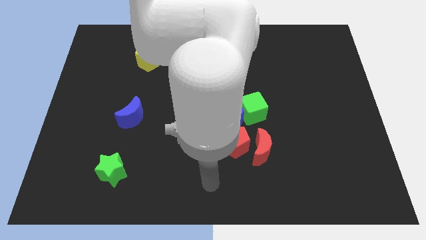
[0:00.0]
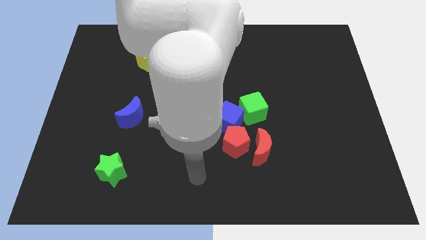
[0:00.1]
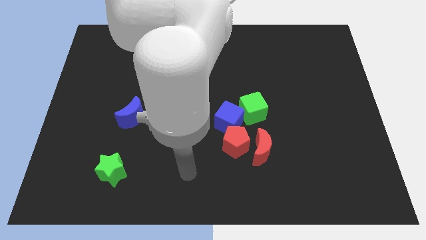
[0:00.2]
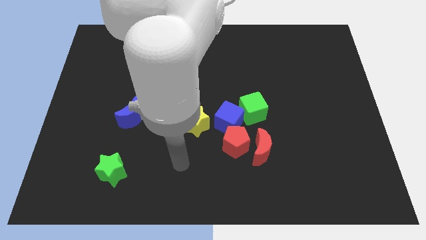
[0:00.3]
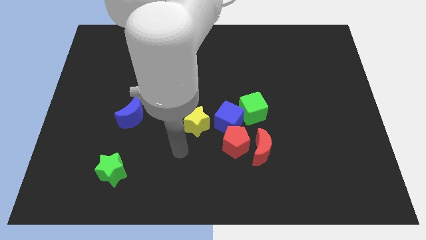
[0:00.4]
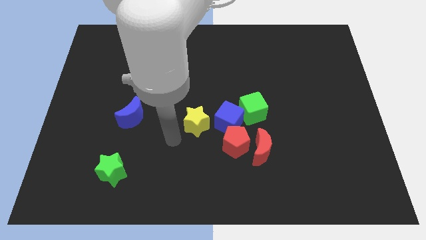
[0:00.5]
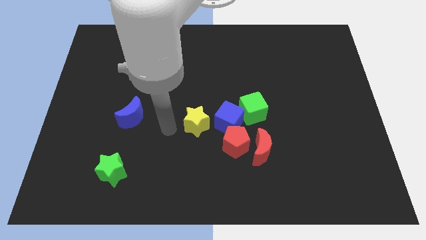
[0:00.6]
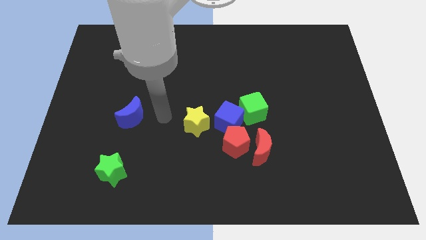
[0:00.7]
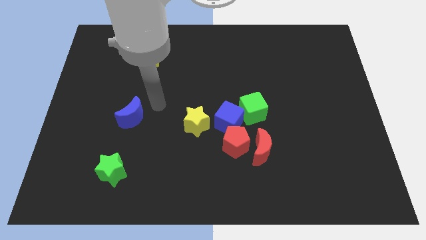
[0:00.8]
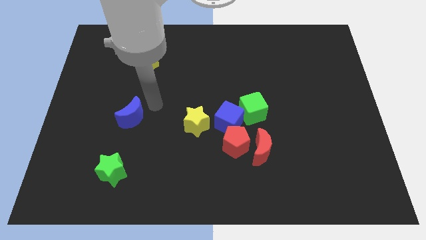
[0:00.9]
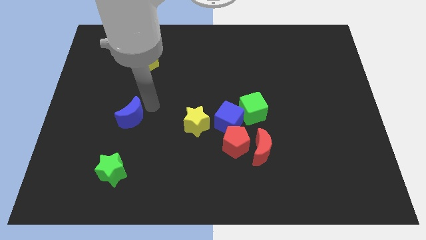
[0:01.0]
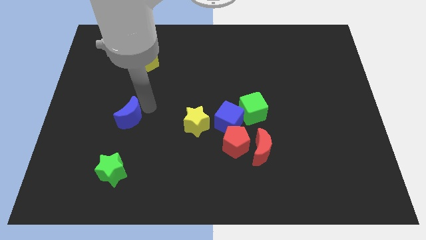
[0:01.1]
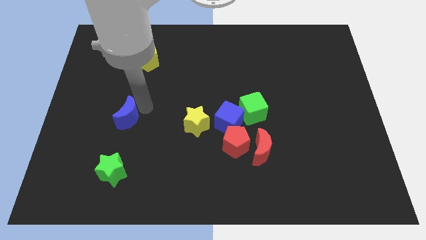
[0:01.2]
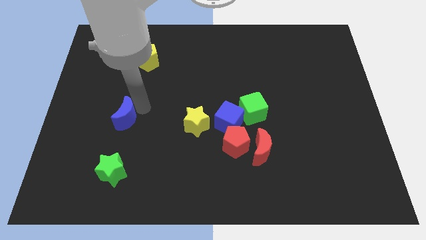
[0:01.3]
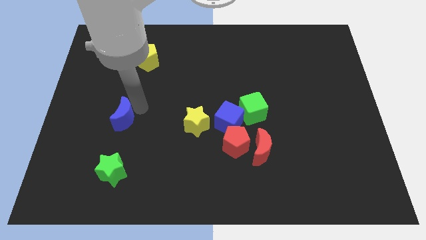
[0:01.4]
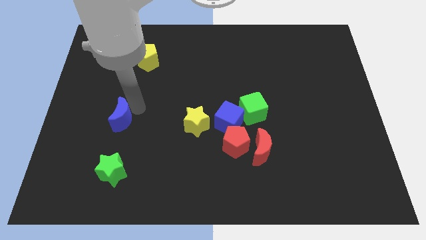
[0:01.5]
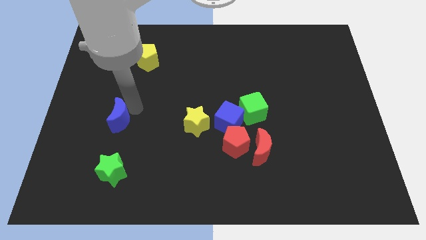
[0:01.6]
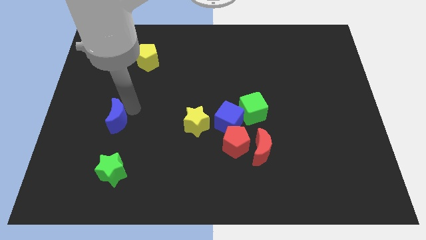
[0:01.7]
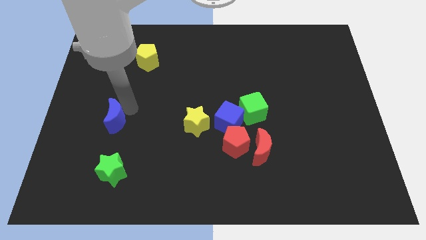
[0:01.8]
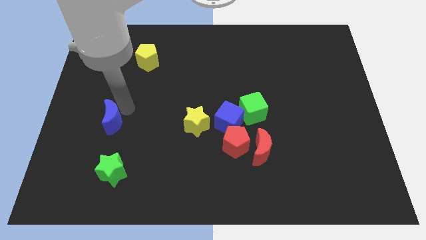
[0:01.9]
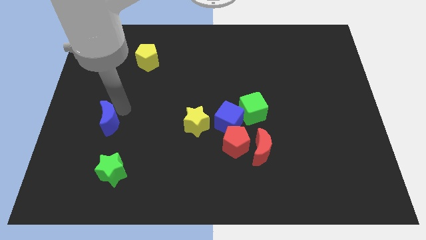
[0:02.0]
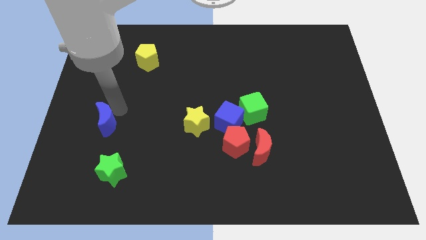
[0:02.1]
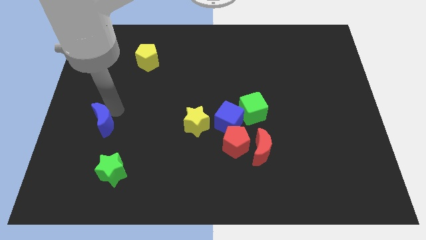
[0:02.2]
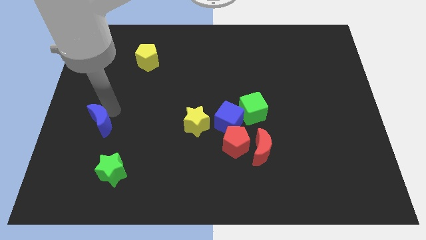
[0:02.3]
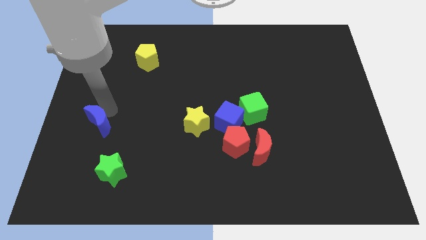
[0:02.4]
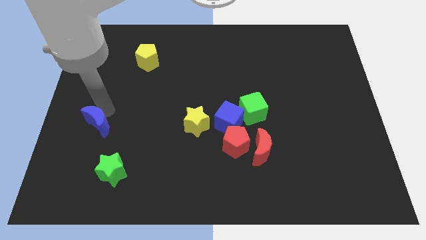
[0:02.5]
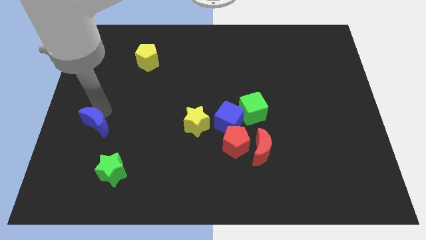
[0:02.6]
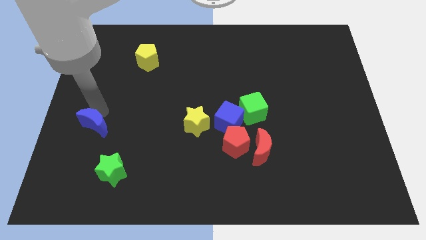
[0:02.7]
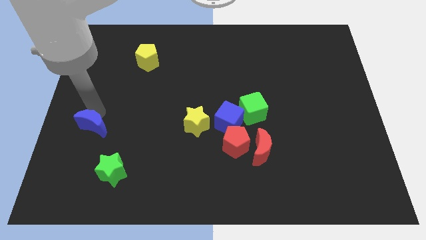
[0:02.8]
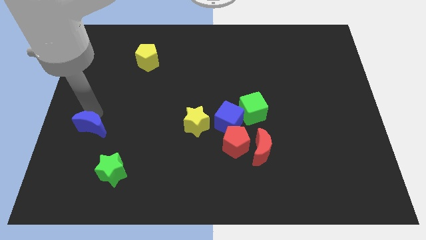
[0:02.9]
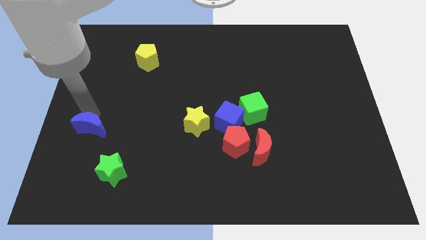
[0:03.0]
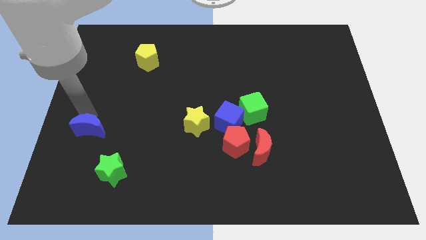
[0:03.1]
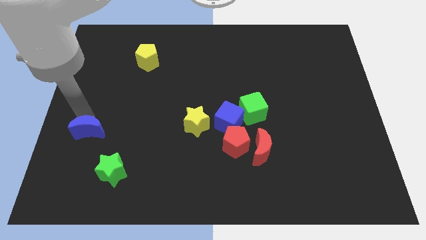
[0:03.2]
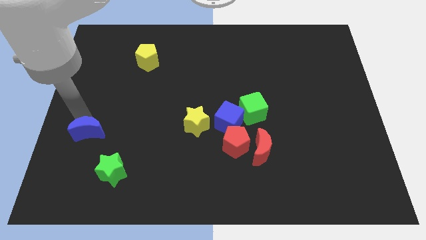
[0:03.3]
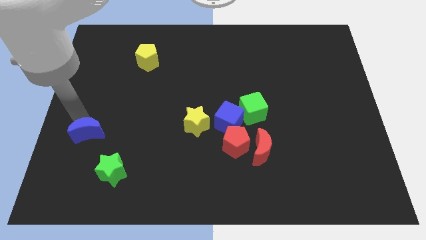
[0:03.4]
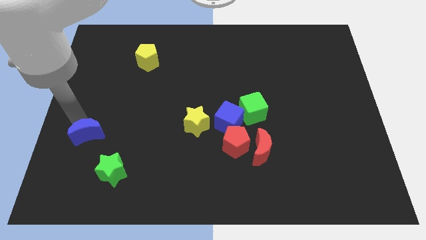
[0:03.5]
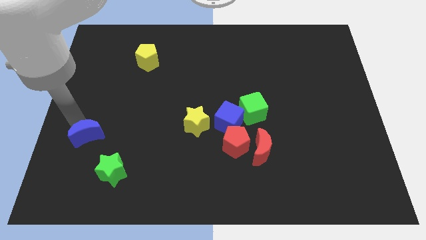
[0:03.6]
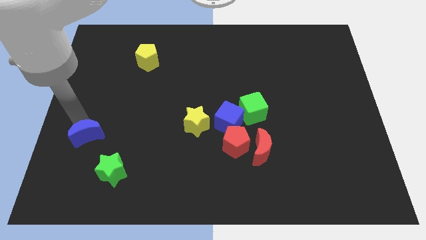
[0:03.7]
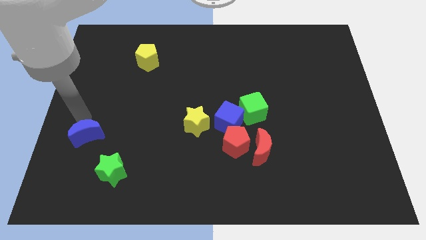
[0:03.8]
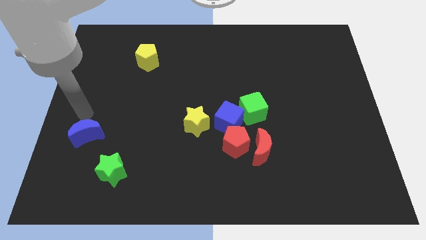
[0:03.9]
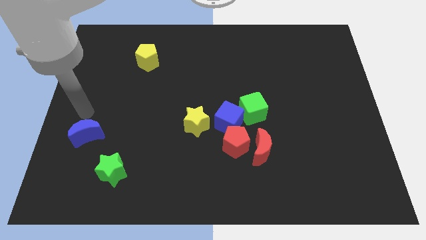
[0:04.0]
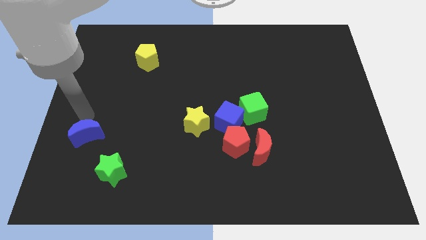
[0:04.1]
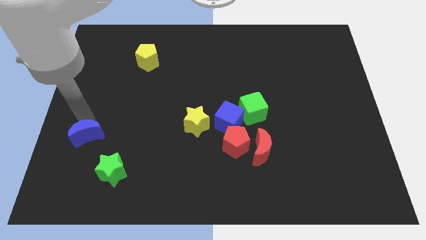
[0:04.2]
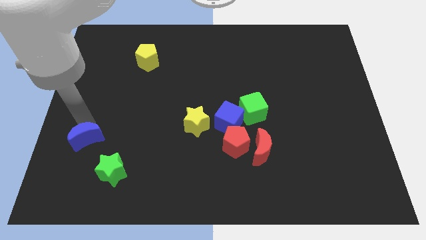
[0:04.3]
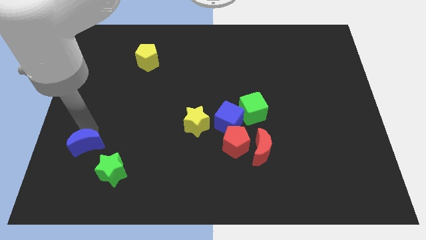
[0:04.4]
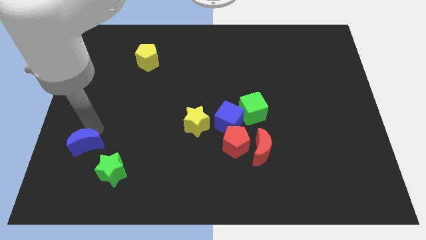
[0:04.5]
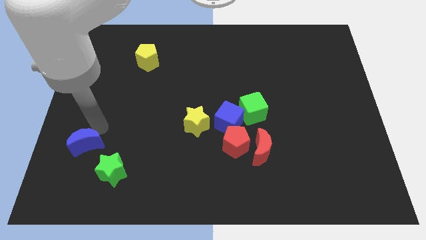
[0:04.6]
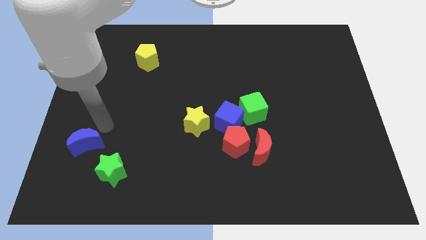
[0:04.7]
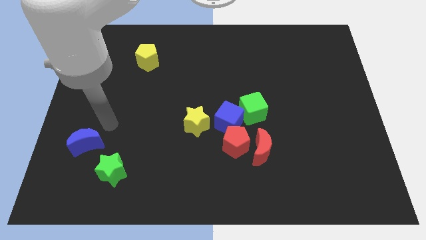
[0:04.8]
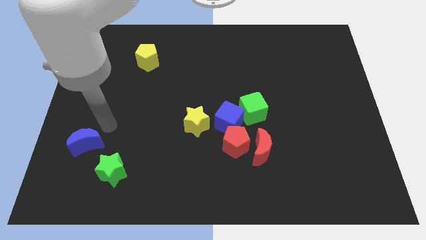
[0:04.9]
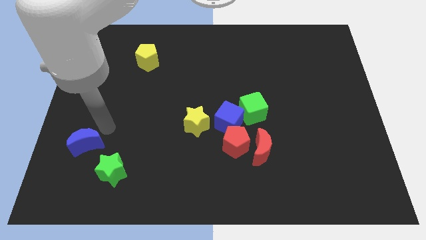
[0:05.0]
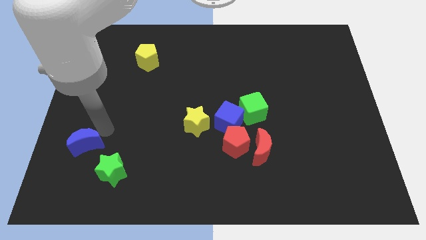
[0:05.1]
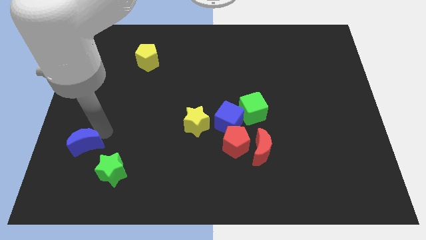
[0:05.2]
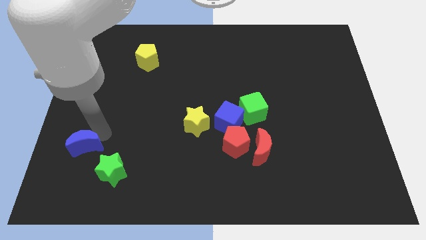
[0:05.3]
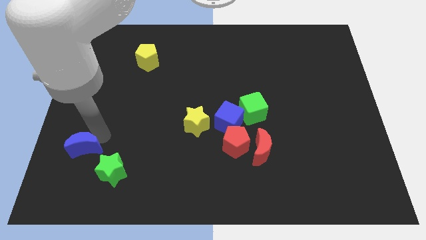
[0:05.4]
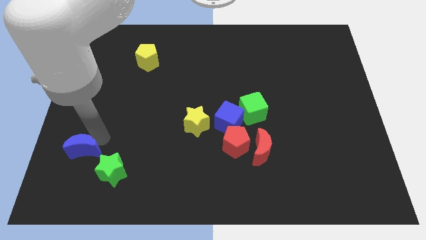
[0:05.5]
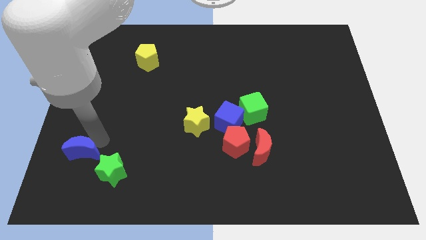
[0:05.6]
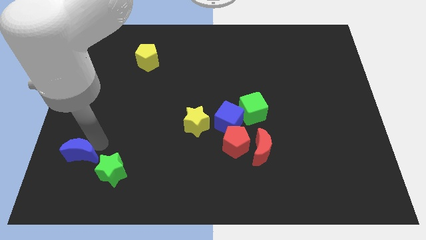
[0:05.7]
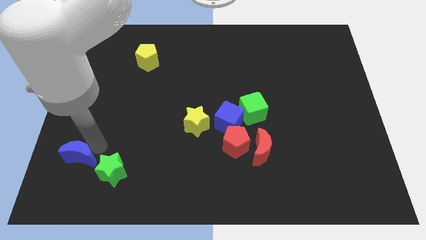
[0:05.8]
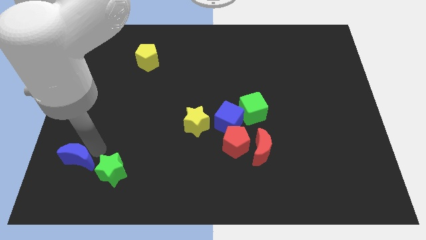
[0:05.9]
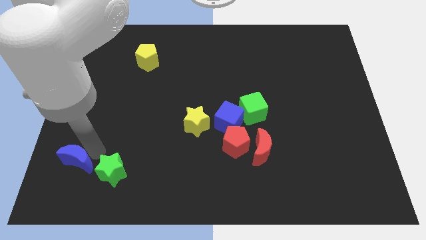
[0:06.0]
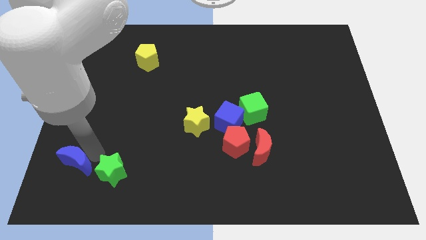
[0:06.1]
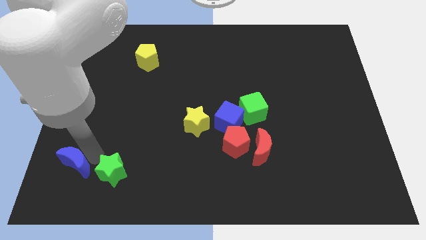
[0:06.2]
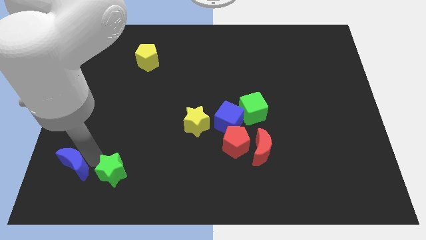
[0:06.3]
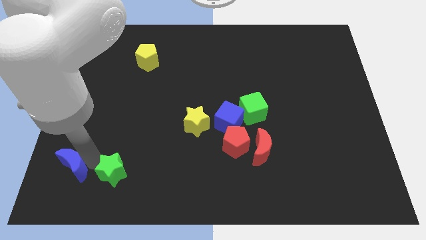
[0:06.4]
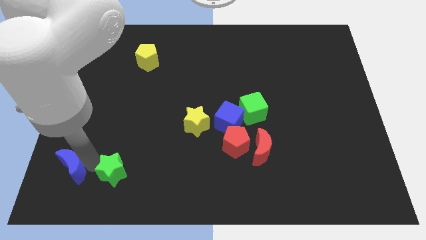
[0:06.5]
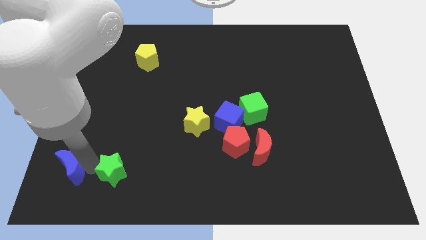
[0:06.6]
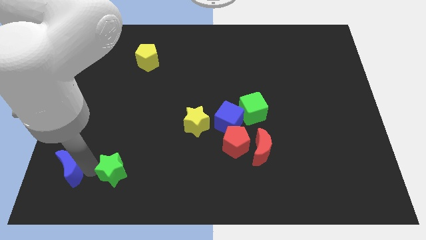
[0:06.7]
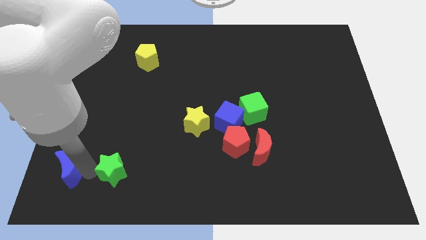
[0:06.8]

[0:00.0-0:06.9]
move the blue moon to the lower left corner
